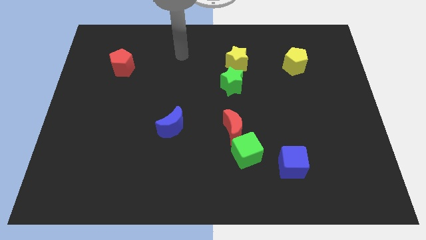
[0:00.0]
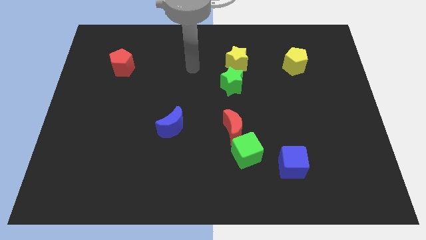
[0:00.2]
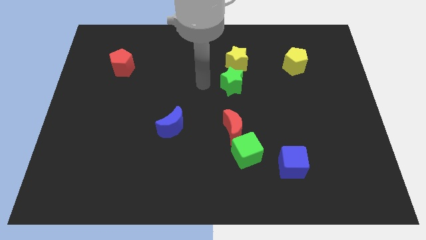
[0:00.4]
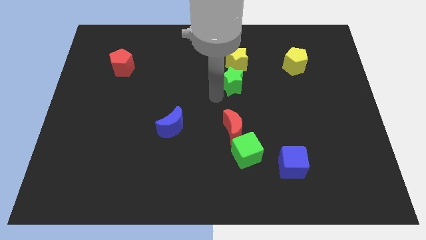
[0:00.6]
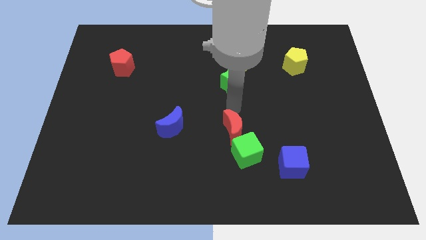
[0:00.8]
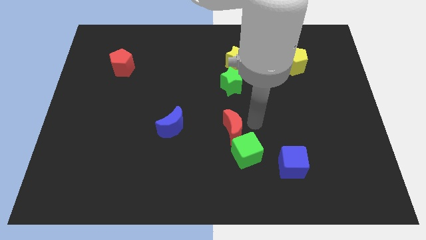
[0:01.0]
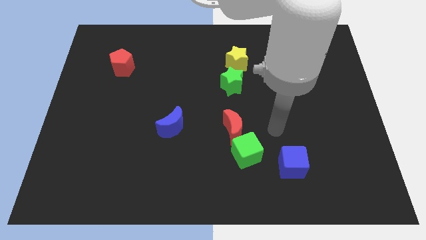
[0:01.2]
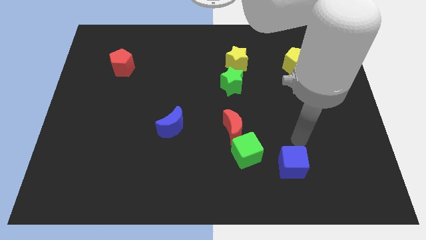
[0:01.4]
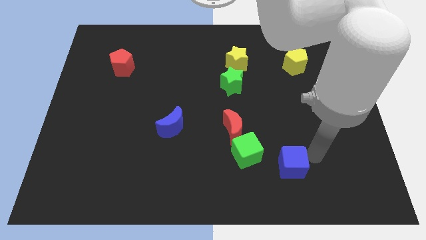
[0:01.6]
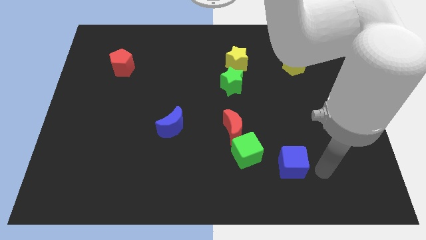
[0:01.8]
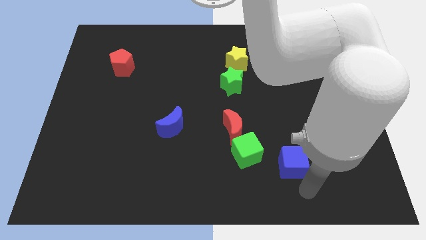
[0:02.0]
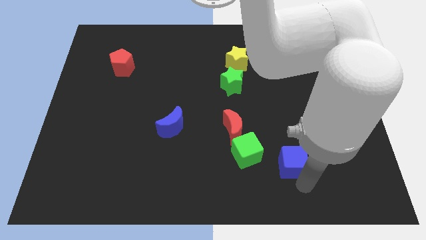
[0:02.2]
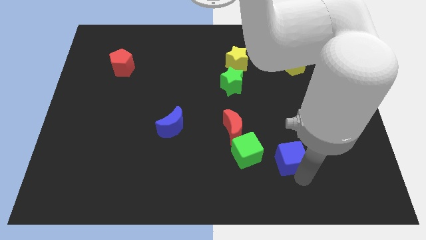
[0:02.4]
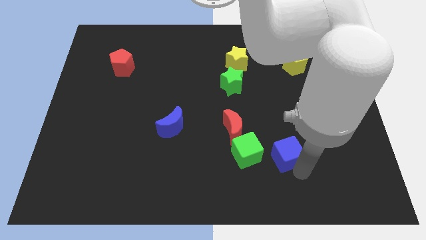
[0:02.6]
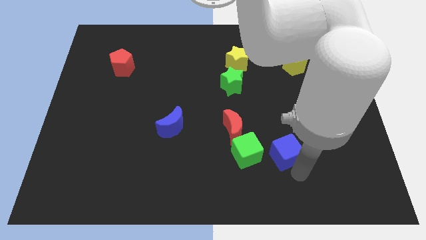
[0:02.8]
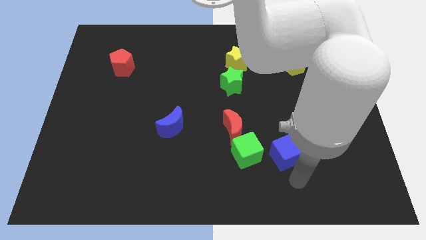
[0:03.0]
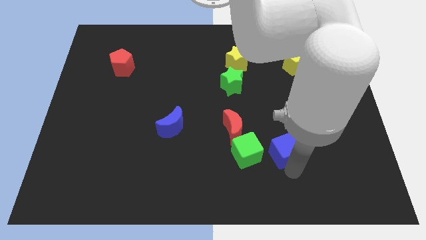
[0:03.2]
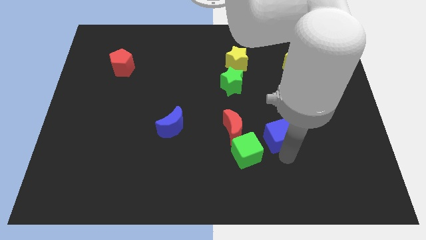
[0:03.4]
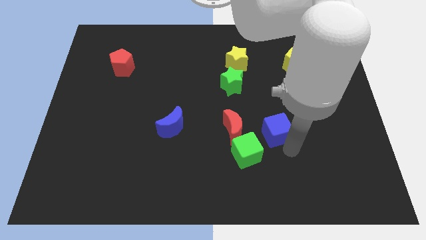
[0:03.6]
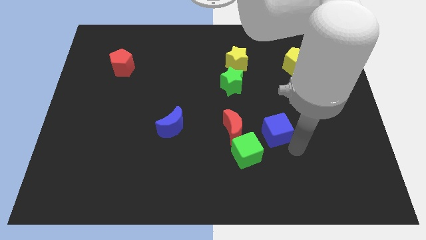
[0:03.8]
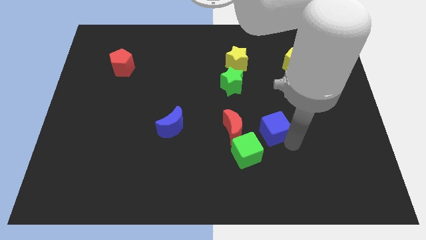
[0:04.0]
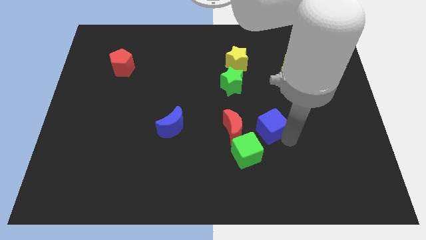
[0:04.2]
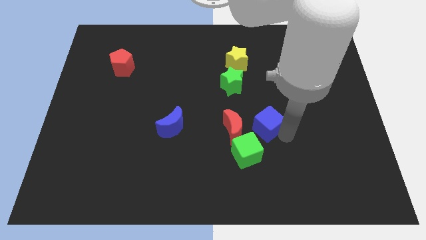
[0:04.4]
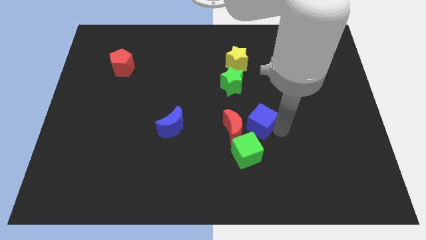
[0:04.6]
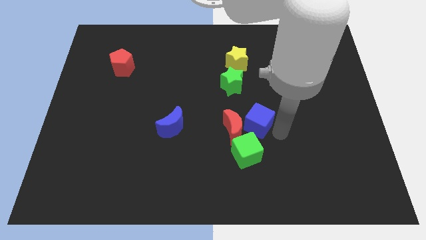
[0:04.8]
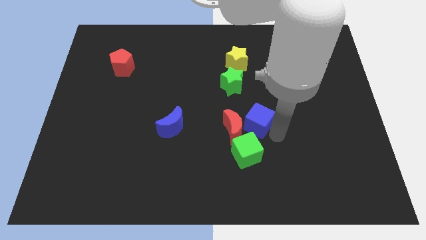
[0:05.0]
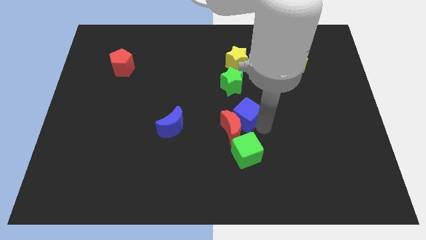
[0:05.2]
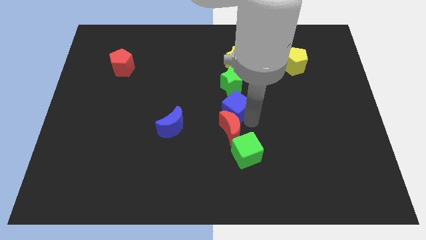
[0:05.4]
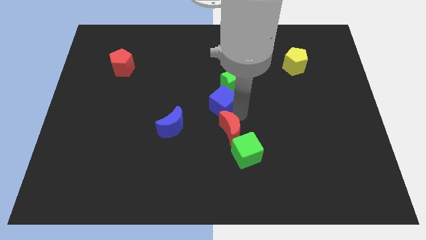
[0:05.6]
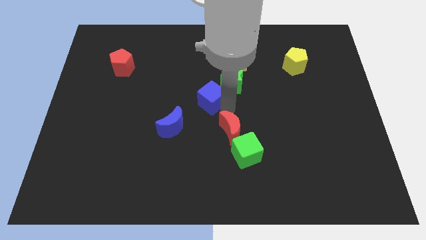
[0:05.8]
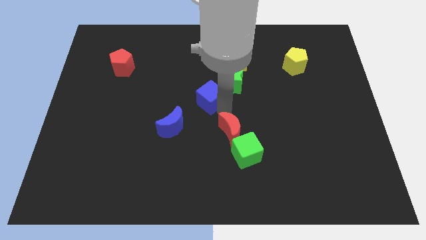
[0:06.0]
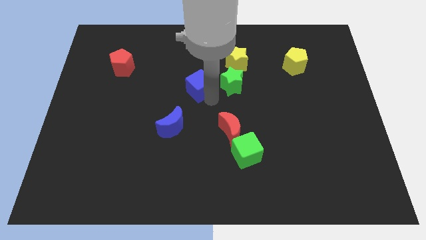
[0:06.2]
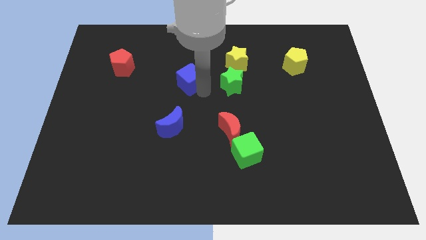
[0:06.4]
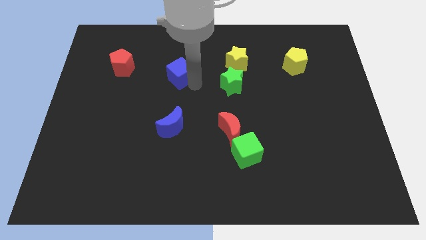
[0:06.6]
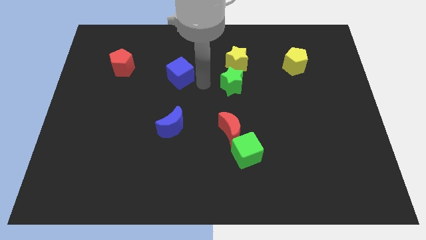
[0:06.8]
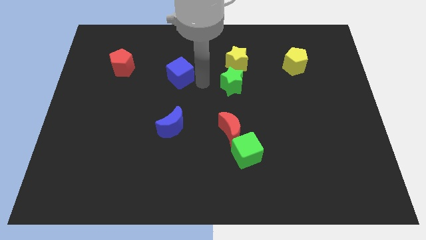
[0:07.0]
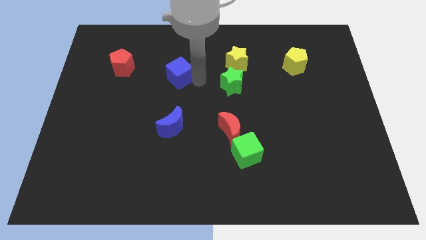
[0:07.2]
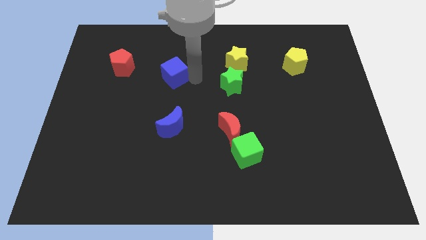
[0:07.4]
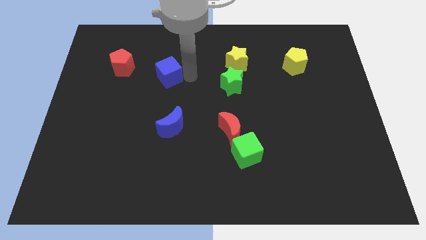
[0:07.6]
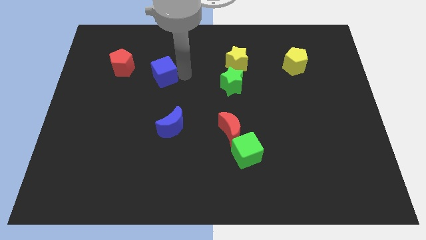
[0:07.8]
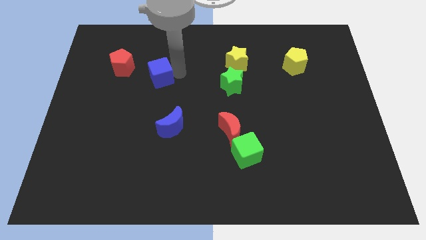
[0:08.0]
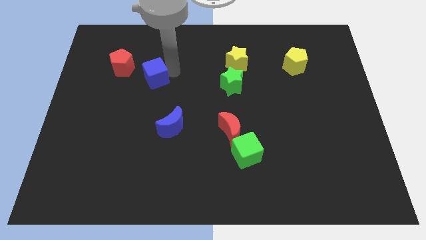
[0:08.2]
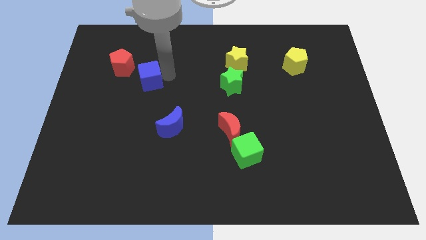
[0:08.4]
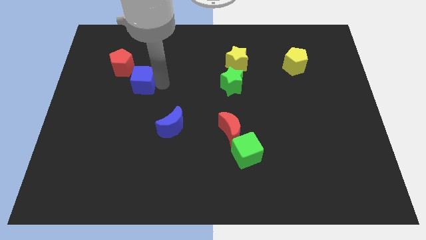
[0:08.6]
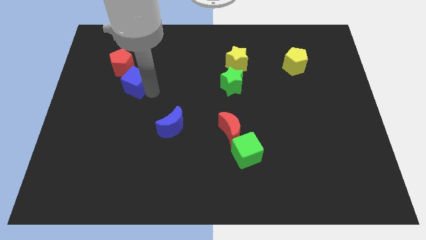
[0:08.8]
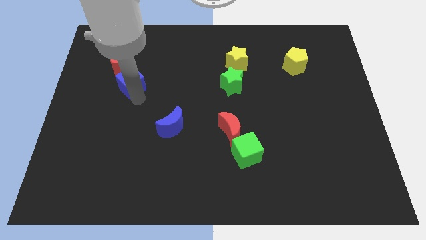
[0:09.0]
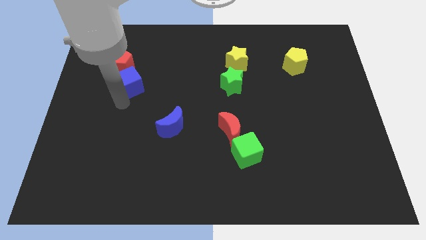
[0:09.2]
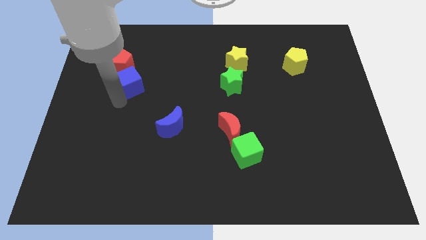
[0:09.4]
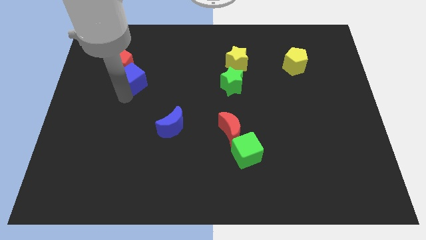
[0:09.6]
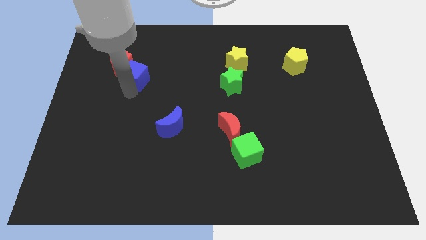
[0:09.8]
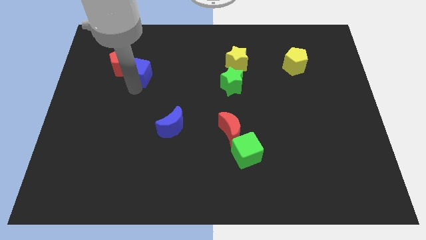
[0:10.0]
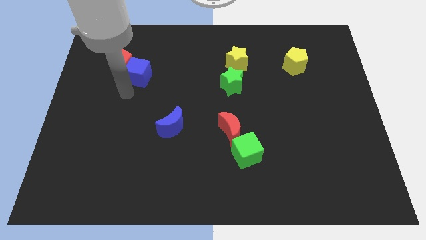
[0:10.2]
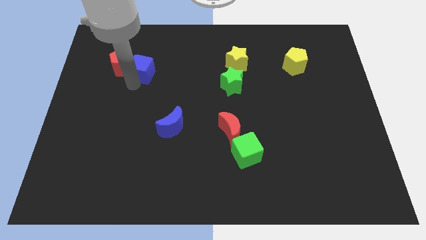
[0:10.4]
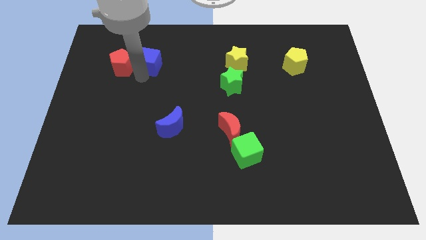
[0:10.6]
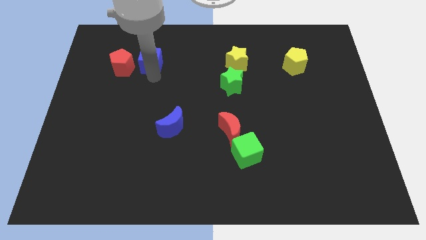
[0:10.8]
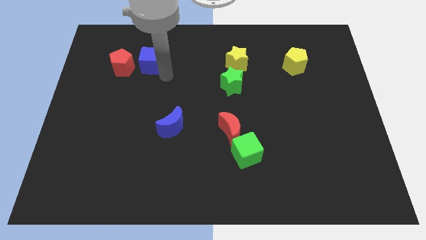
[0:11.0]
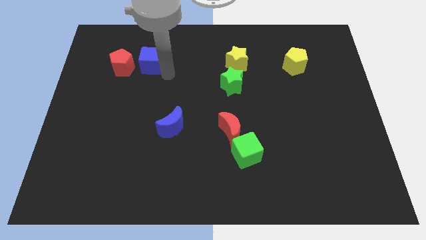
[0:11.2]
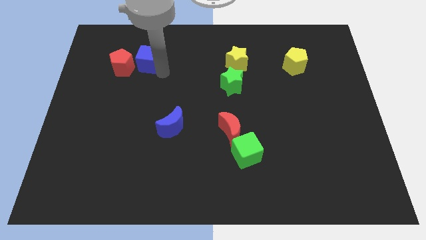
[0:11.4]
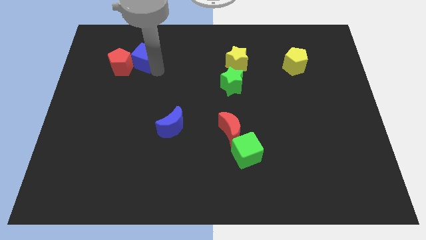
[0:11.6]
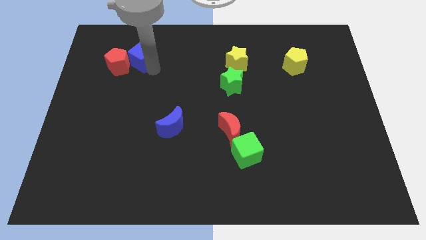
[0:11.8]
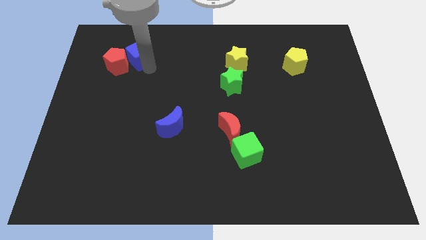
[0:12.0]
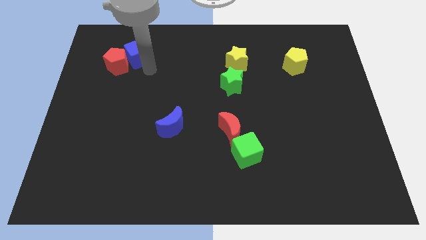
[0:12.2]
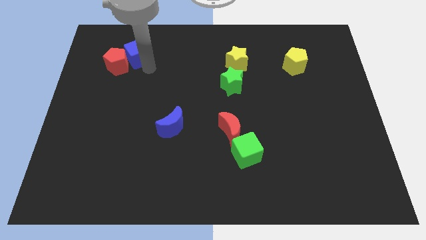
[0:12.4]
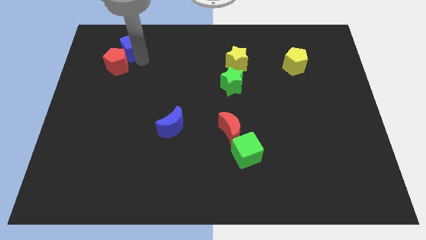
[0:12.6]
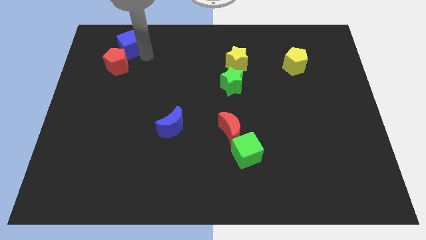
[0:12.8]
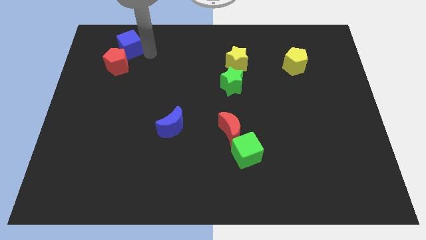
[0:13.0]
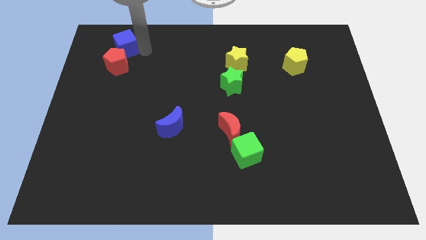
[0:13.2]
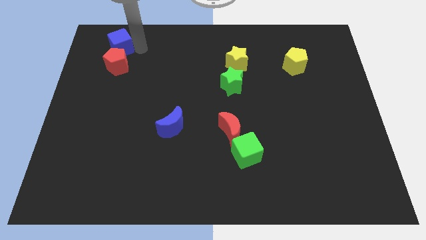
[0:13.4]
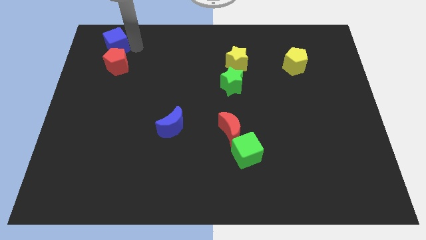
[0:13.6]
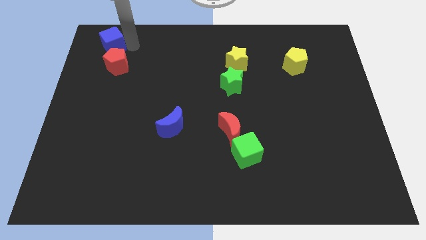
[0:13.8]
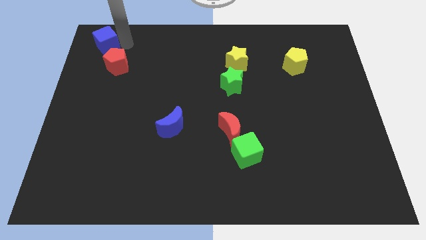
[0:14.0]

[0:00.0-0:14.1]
push the blue cube to the top left corner
